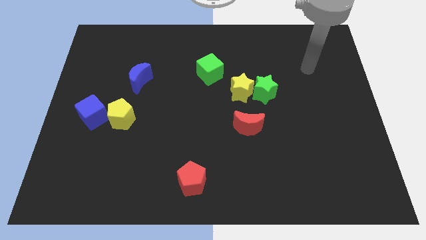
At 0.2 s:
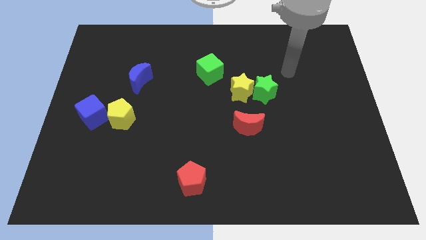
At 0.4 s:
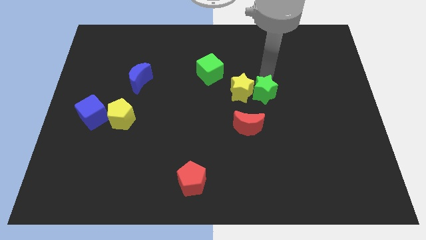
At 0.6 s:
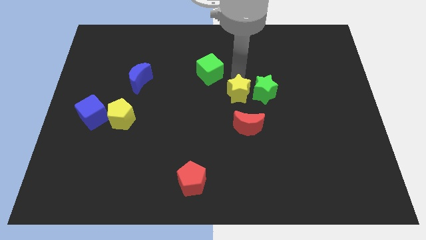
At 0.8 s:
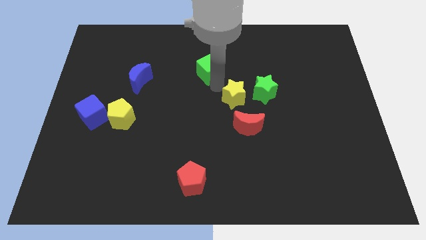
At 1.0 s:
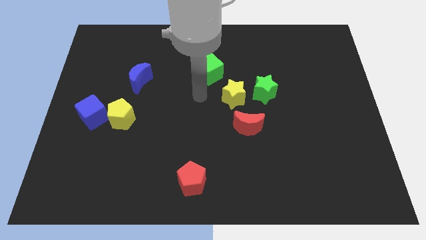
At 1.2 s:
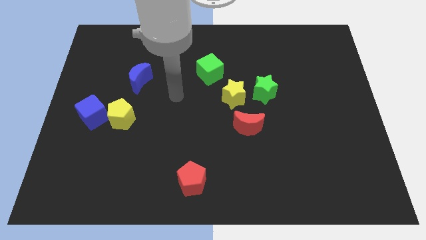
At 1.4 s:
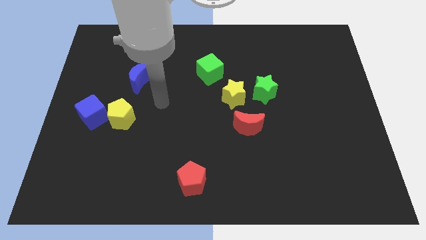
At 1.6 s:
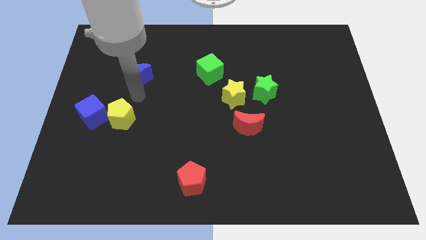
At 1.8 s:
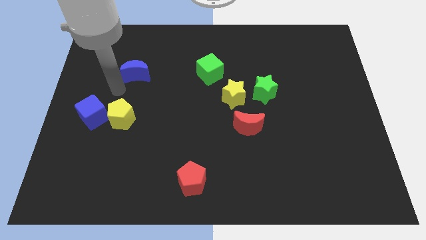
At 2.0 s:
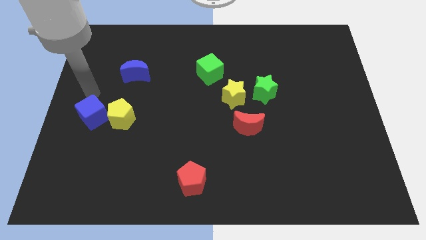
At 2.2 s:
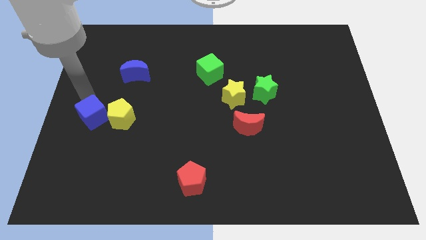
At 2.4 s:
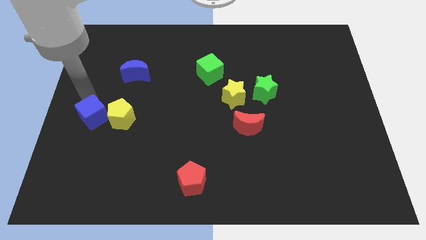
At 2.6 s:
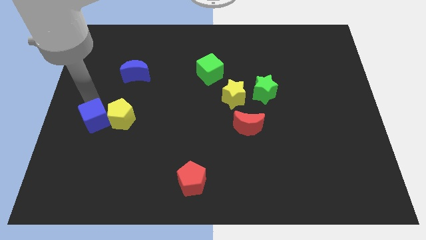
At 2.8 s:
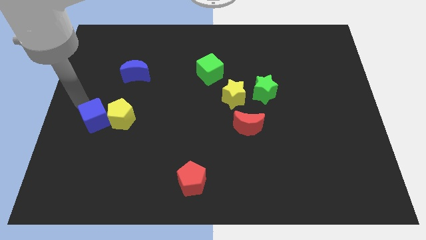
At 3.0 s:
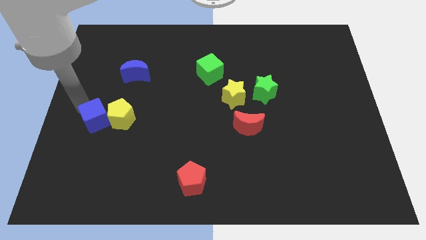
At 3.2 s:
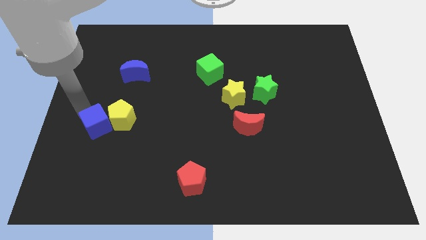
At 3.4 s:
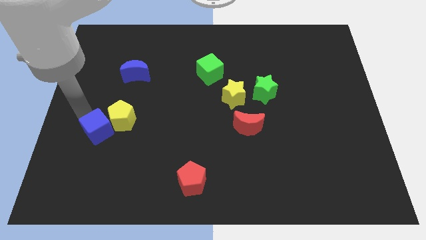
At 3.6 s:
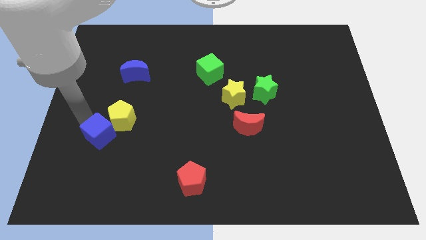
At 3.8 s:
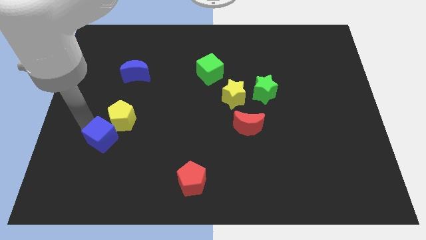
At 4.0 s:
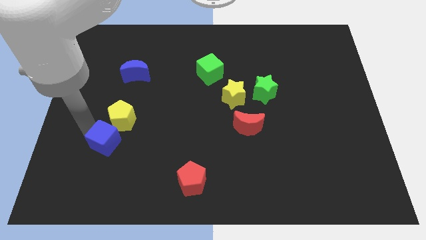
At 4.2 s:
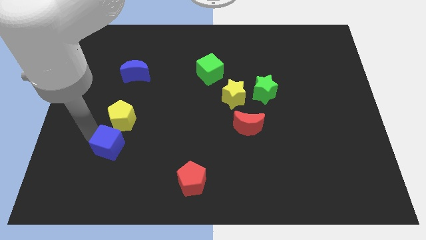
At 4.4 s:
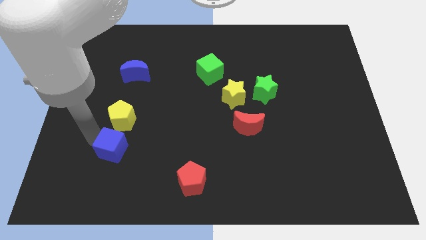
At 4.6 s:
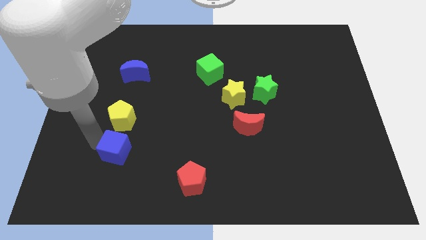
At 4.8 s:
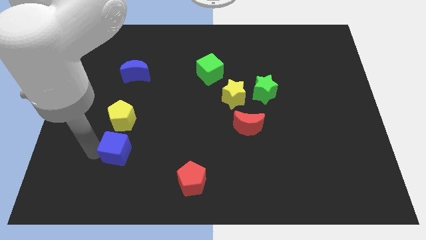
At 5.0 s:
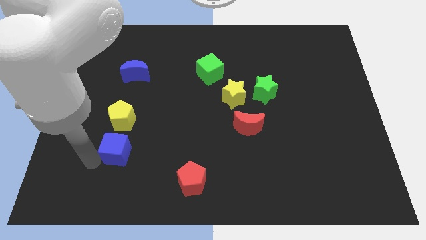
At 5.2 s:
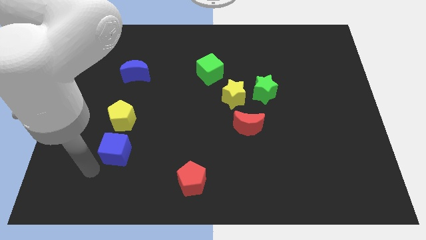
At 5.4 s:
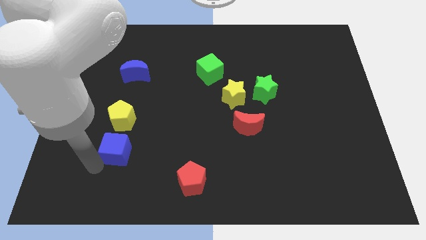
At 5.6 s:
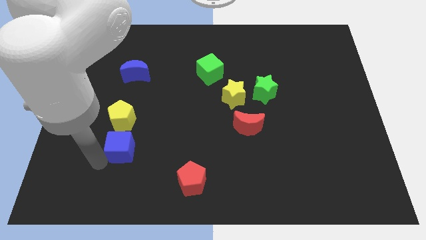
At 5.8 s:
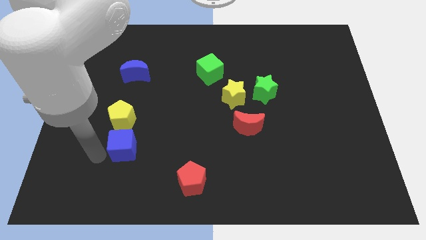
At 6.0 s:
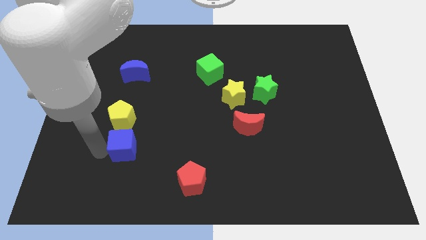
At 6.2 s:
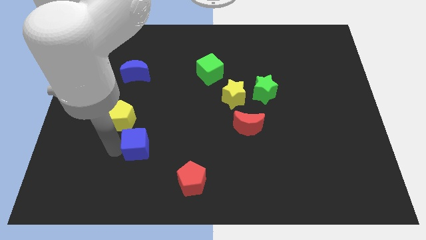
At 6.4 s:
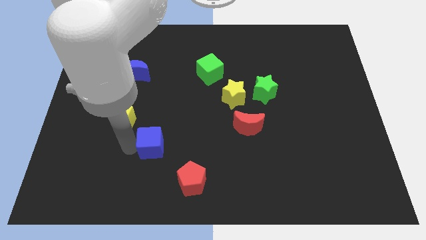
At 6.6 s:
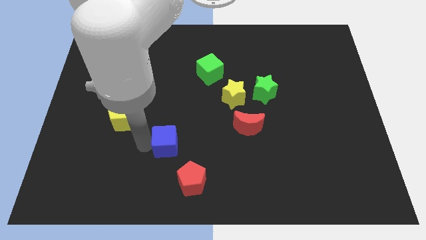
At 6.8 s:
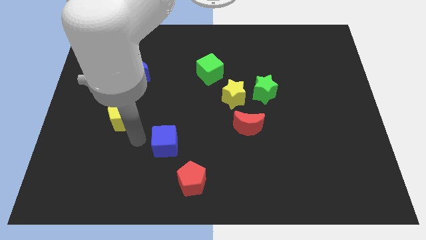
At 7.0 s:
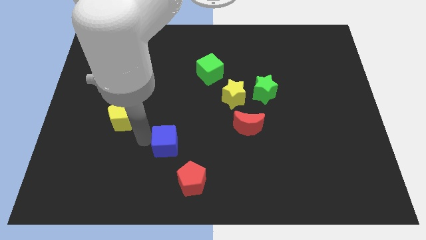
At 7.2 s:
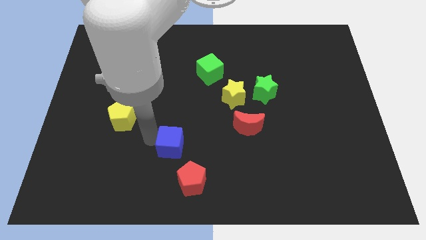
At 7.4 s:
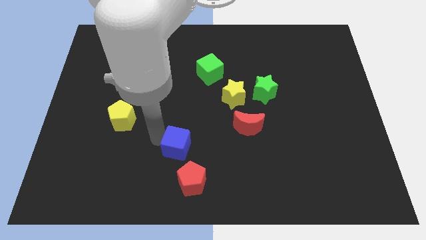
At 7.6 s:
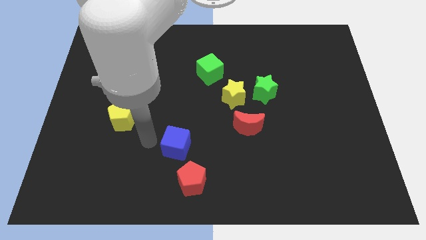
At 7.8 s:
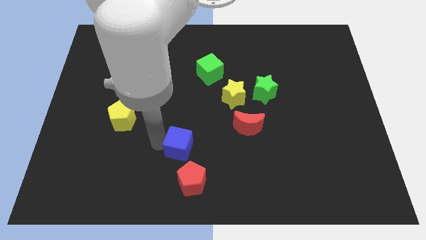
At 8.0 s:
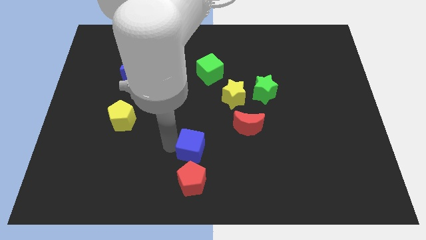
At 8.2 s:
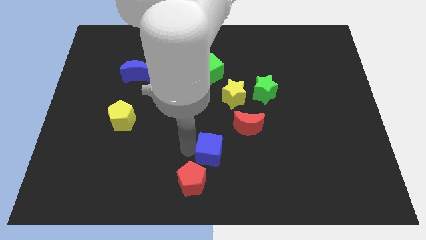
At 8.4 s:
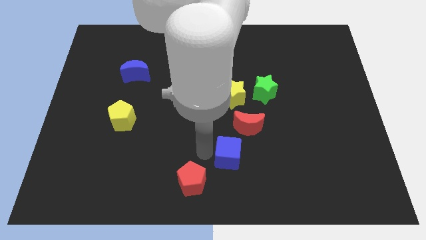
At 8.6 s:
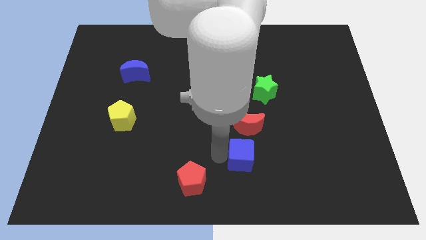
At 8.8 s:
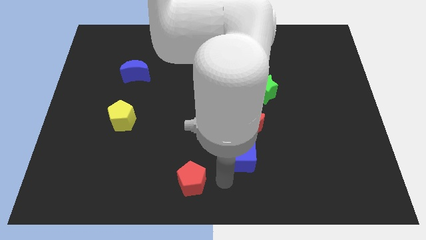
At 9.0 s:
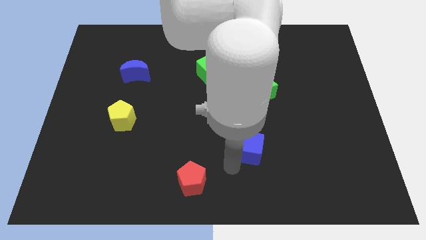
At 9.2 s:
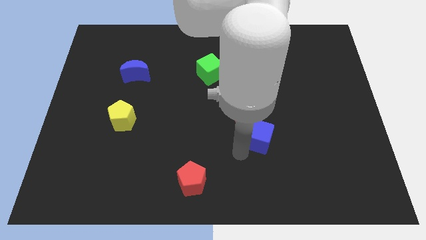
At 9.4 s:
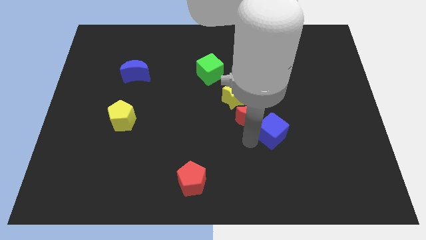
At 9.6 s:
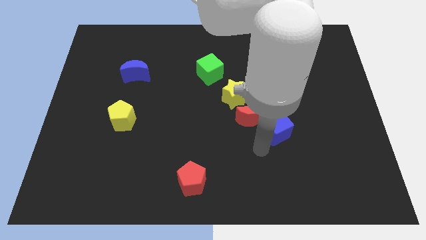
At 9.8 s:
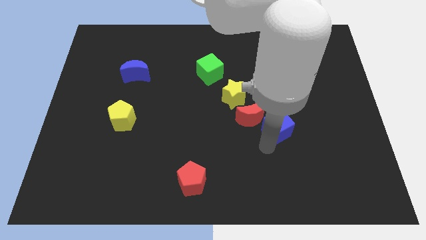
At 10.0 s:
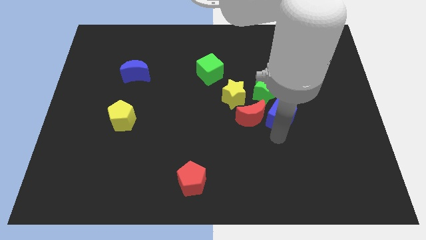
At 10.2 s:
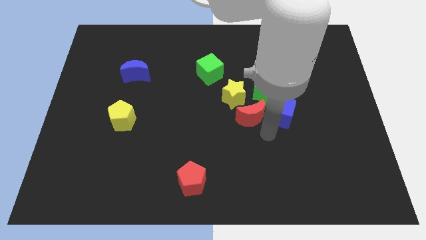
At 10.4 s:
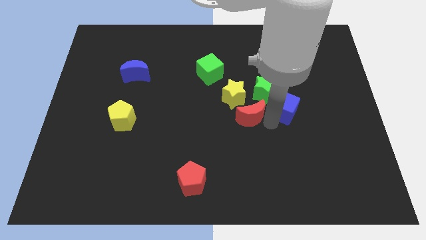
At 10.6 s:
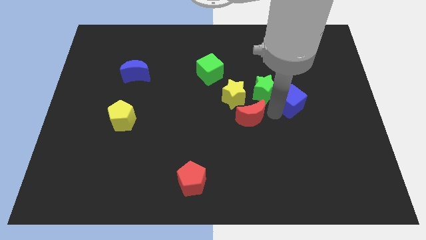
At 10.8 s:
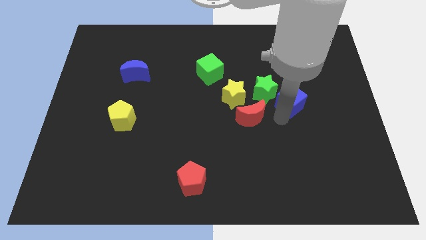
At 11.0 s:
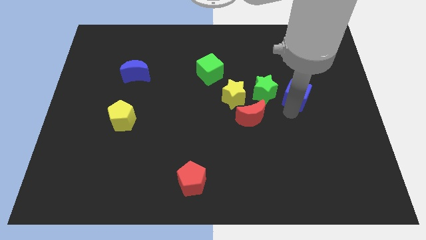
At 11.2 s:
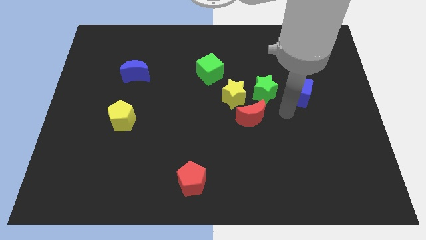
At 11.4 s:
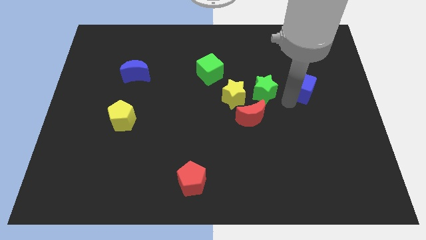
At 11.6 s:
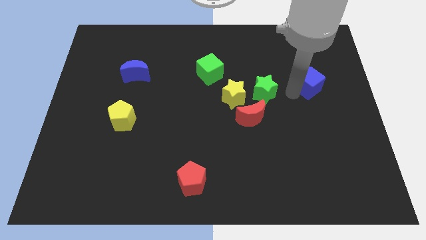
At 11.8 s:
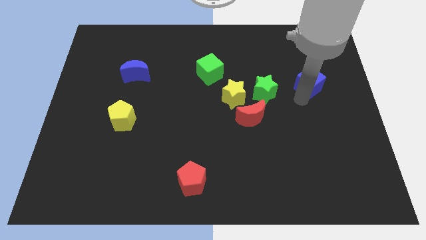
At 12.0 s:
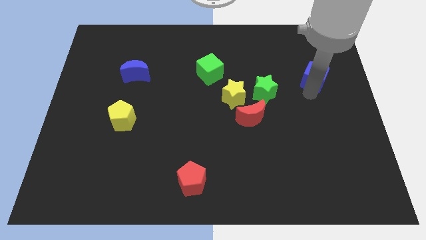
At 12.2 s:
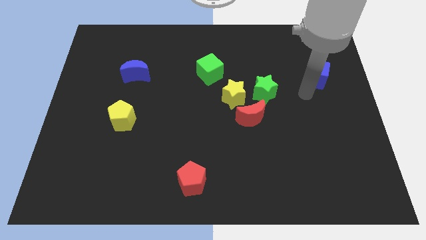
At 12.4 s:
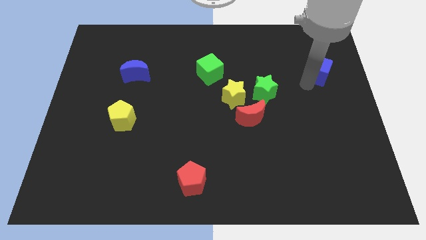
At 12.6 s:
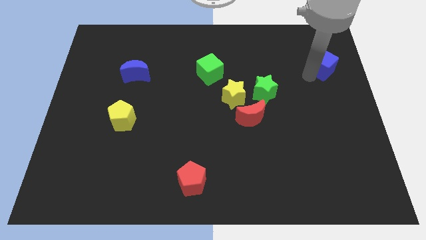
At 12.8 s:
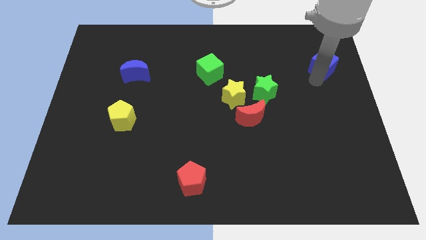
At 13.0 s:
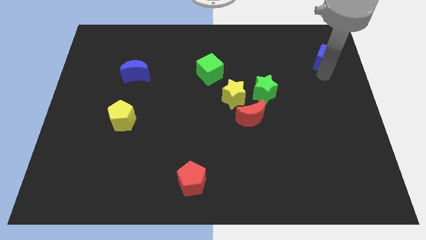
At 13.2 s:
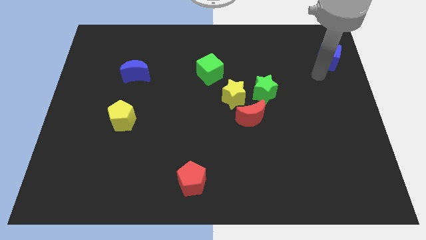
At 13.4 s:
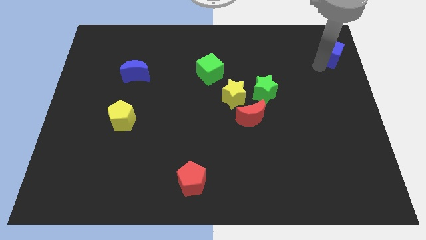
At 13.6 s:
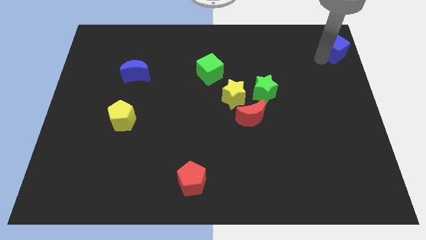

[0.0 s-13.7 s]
slide the blue cube to the top right corner

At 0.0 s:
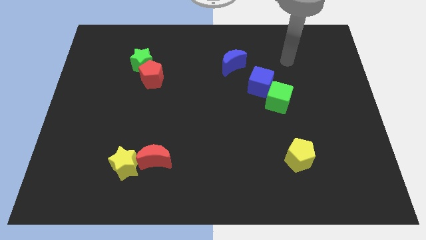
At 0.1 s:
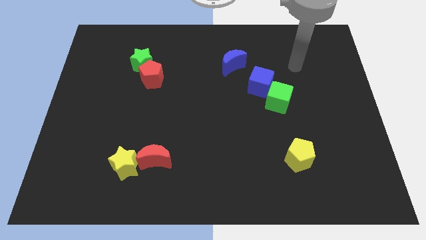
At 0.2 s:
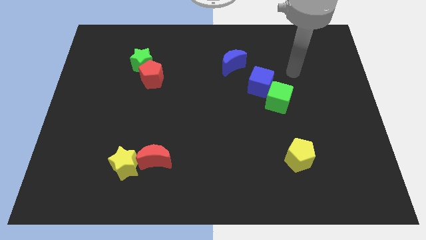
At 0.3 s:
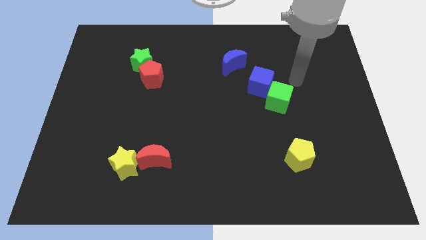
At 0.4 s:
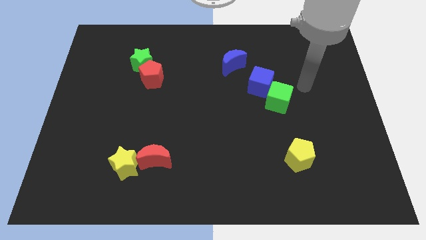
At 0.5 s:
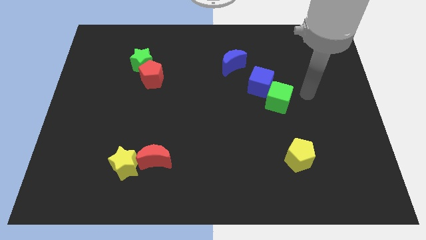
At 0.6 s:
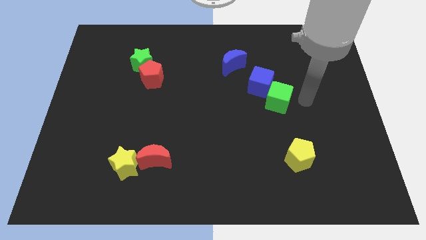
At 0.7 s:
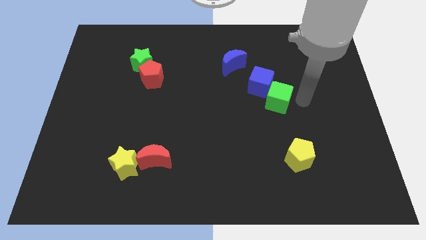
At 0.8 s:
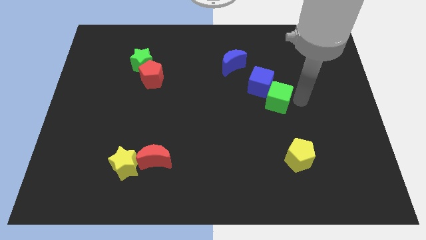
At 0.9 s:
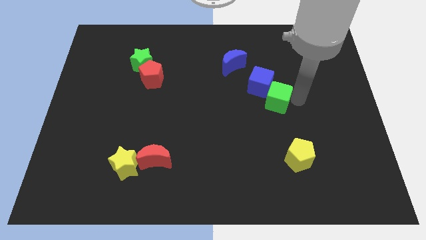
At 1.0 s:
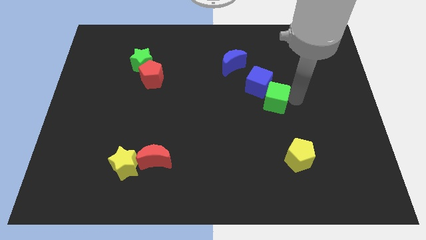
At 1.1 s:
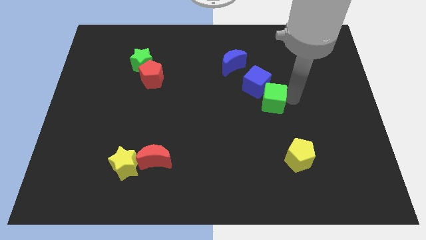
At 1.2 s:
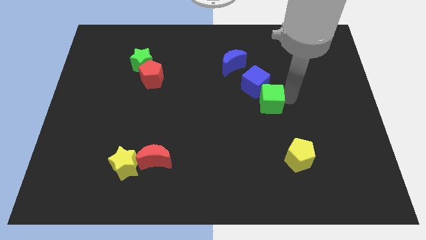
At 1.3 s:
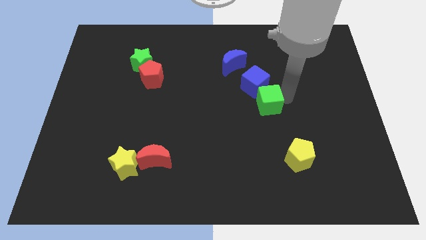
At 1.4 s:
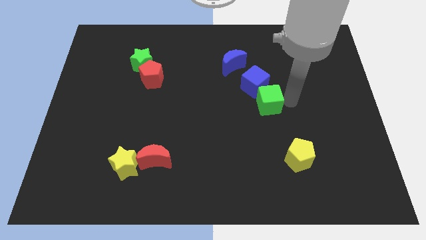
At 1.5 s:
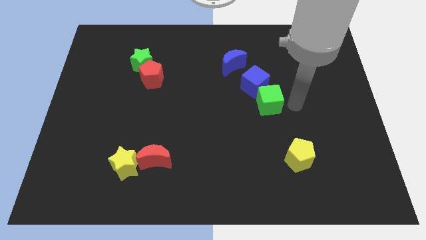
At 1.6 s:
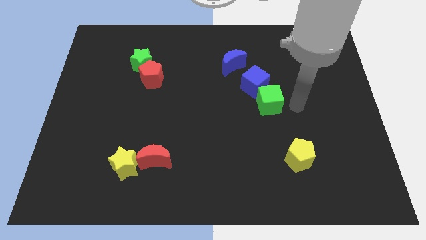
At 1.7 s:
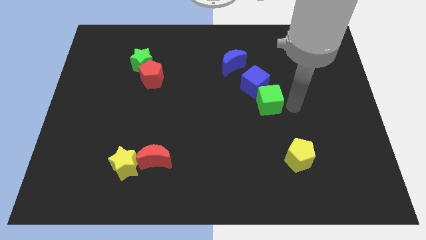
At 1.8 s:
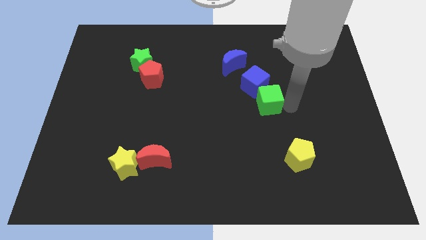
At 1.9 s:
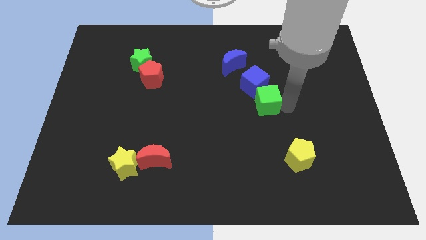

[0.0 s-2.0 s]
put the green cube to the center of the board
